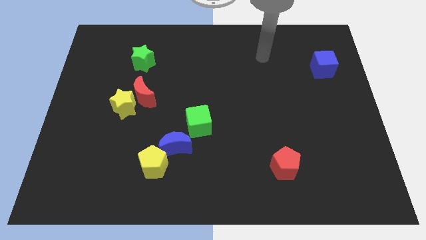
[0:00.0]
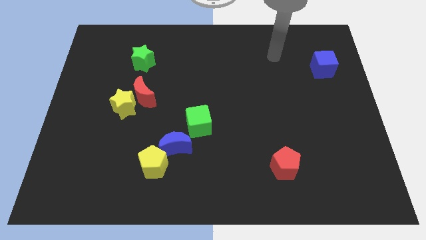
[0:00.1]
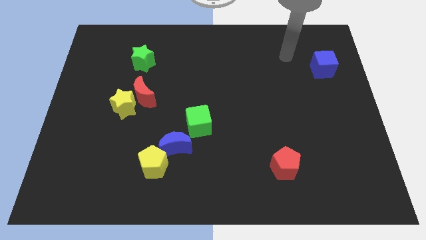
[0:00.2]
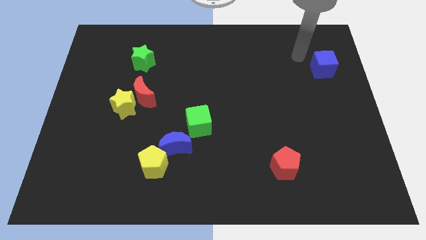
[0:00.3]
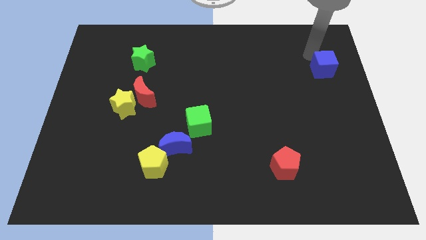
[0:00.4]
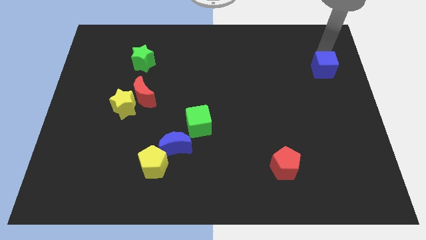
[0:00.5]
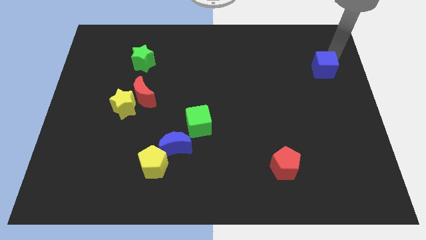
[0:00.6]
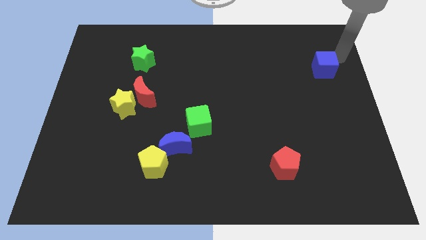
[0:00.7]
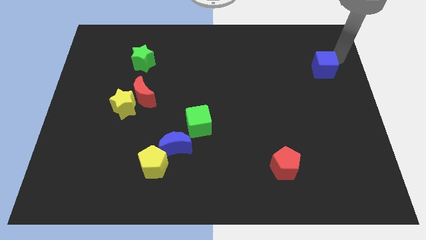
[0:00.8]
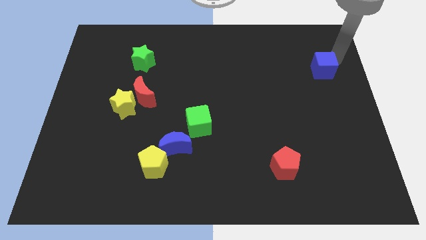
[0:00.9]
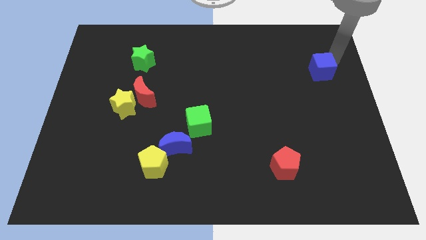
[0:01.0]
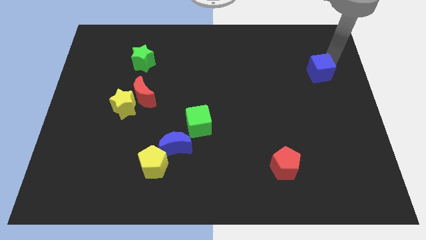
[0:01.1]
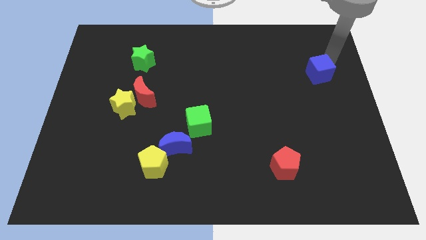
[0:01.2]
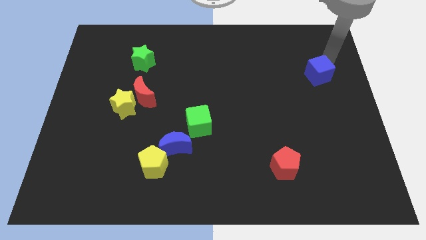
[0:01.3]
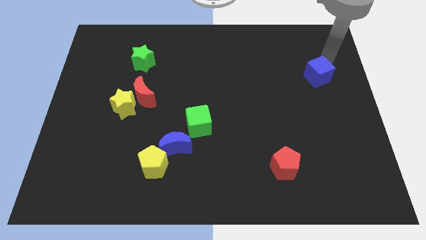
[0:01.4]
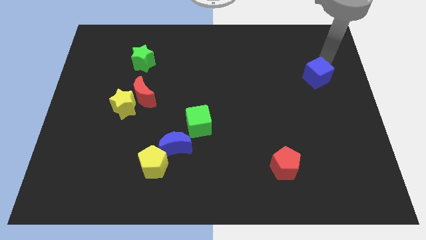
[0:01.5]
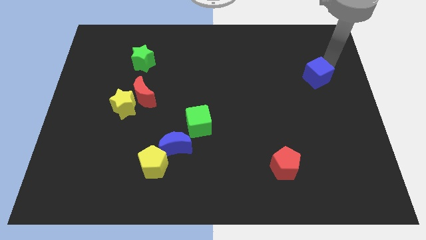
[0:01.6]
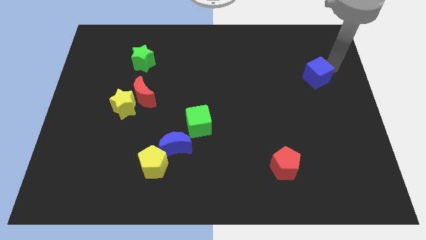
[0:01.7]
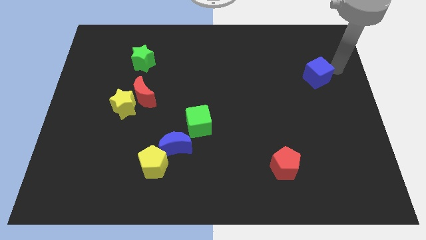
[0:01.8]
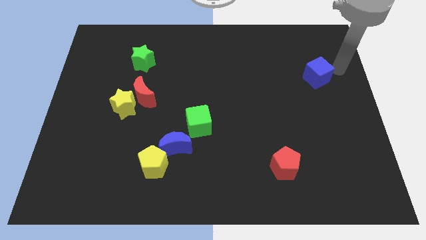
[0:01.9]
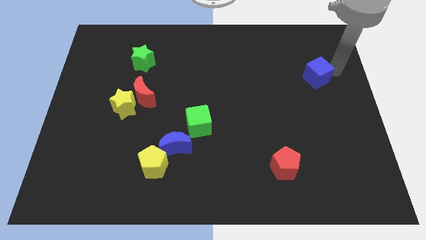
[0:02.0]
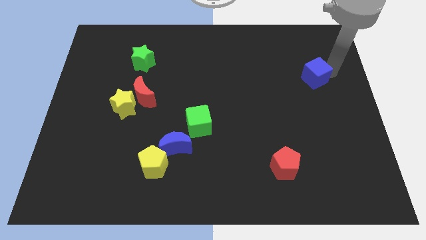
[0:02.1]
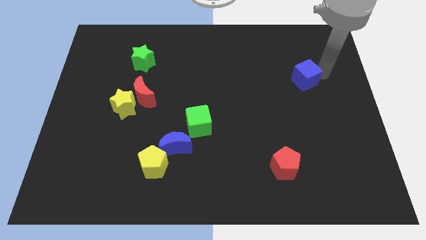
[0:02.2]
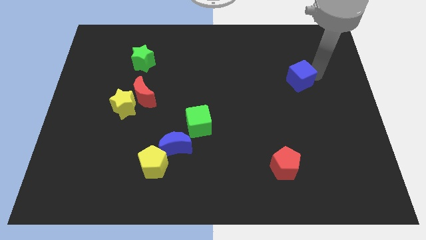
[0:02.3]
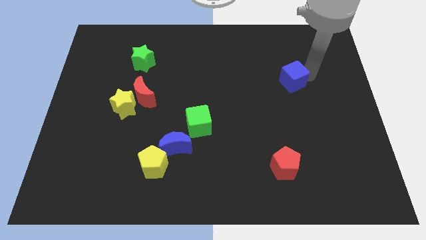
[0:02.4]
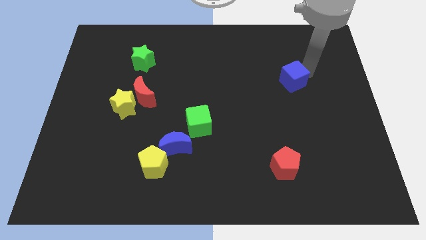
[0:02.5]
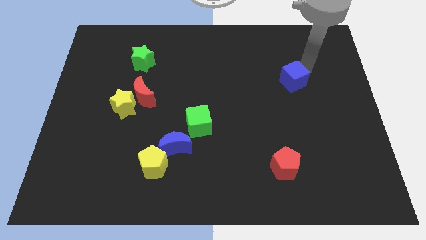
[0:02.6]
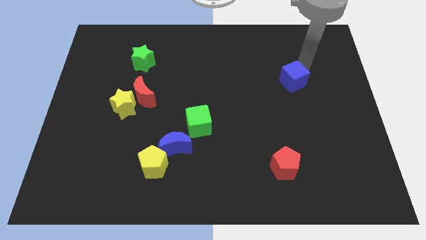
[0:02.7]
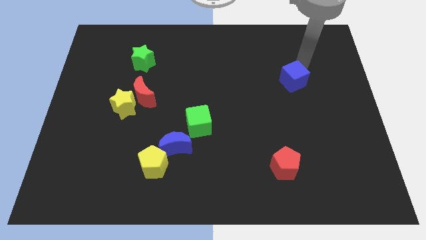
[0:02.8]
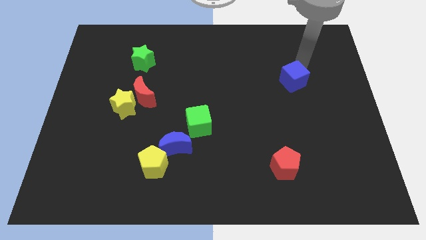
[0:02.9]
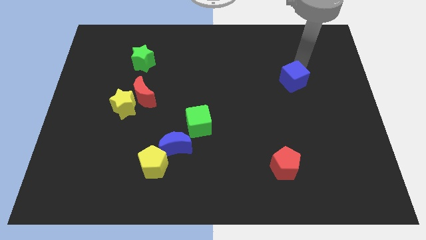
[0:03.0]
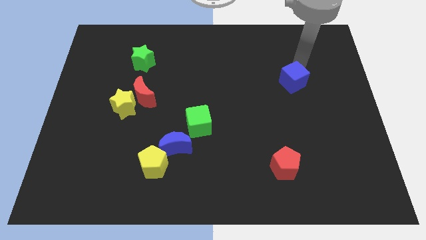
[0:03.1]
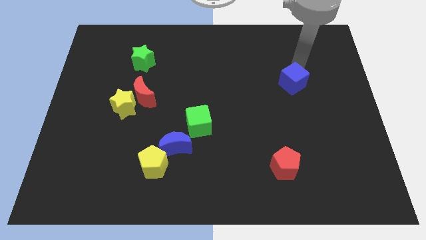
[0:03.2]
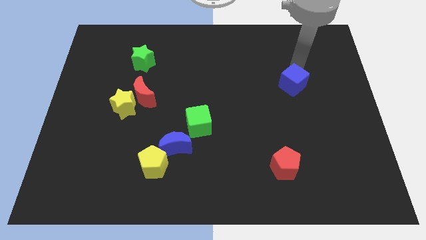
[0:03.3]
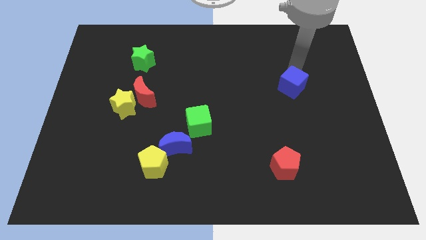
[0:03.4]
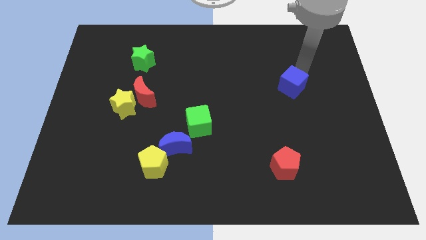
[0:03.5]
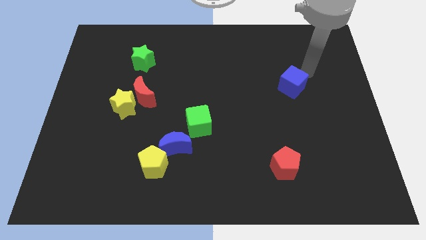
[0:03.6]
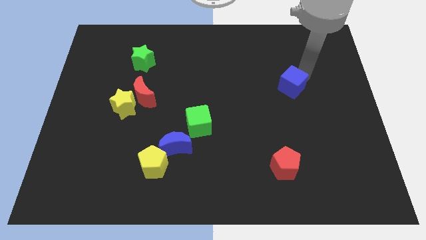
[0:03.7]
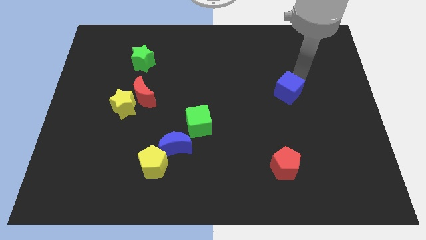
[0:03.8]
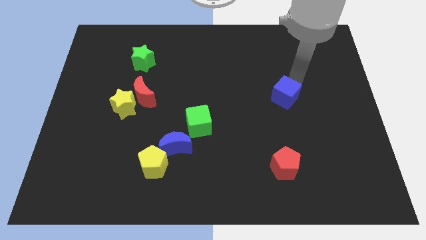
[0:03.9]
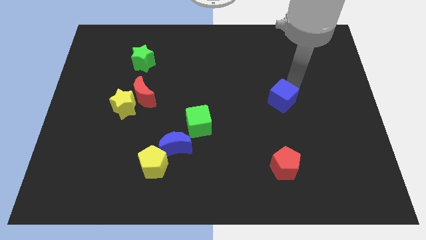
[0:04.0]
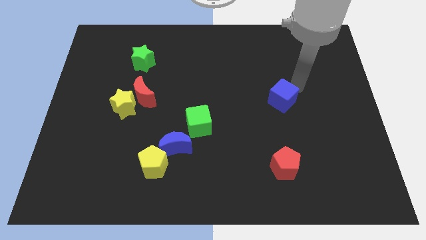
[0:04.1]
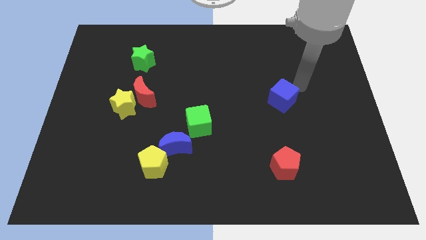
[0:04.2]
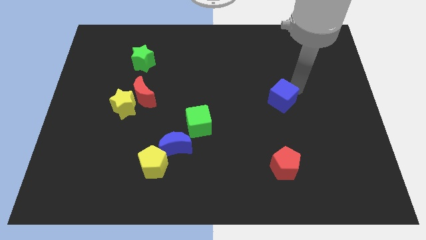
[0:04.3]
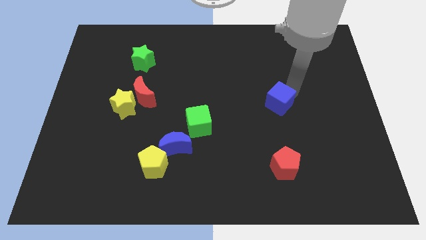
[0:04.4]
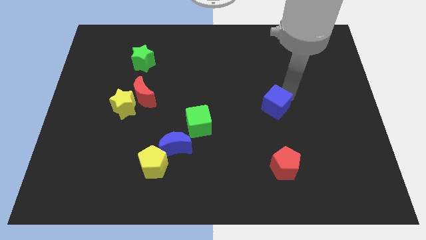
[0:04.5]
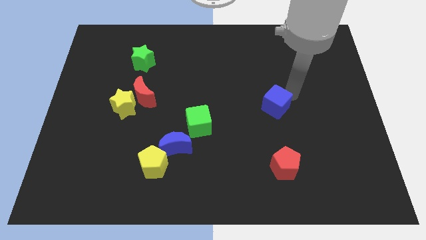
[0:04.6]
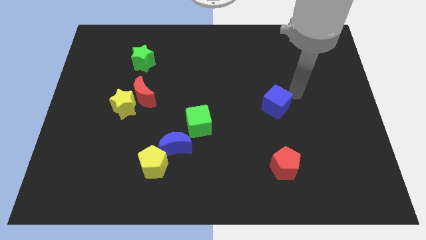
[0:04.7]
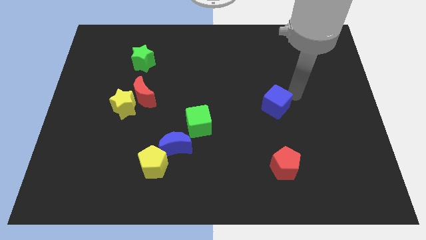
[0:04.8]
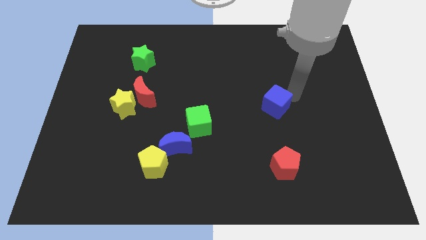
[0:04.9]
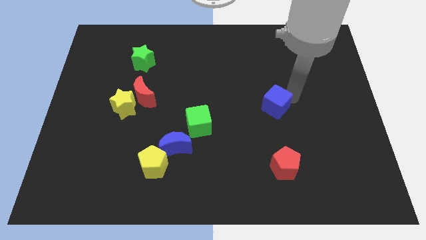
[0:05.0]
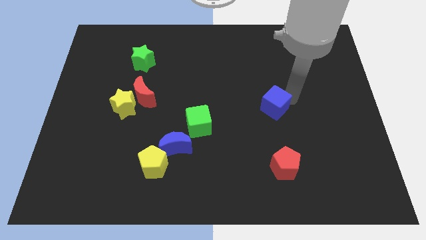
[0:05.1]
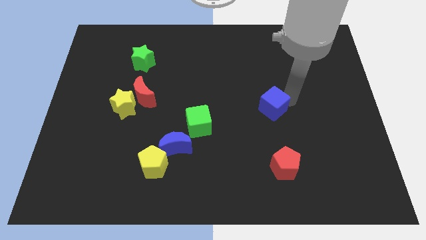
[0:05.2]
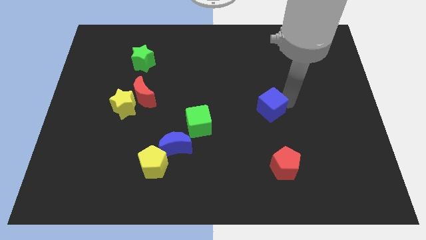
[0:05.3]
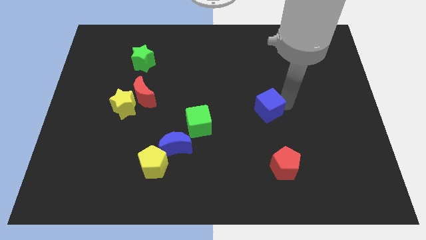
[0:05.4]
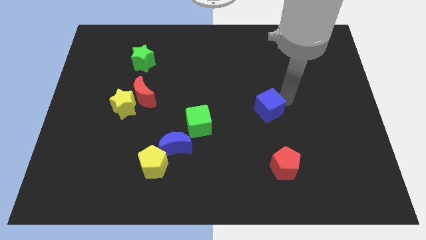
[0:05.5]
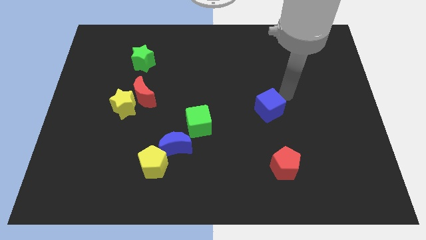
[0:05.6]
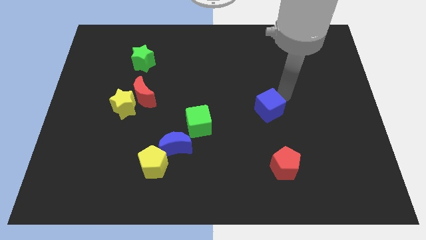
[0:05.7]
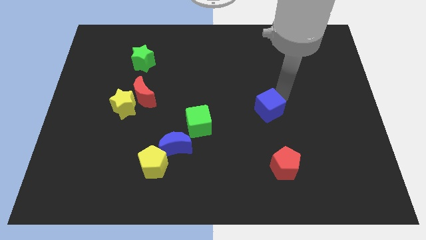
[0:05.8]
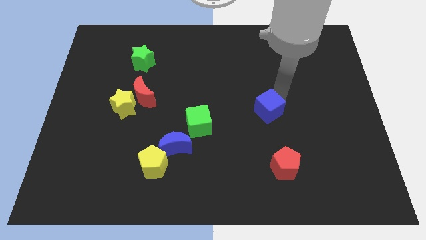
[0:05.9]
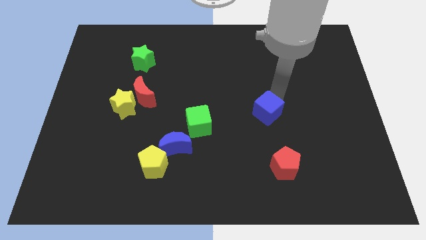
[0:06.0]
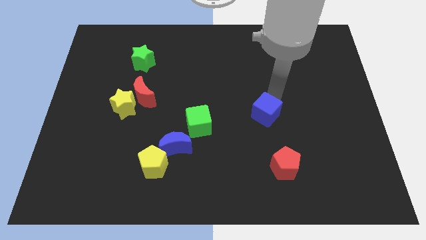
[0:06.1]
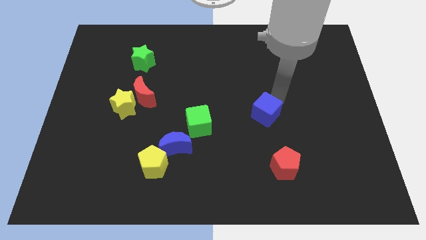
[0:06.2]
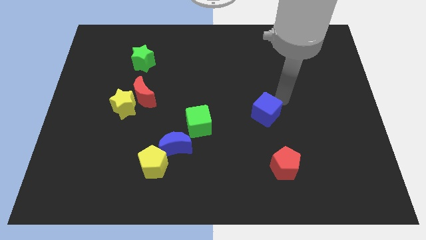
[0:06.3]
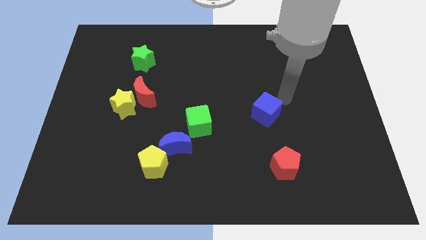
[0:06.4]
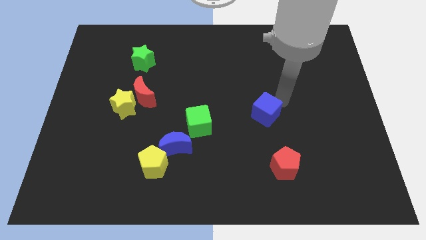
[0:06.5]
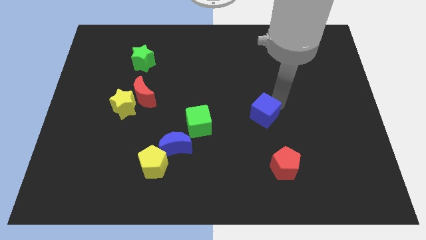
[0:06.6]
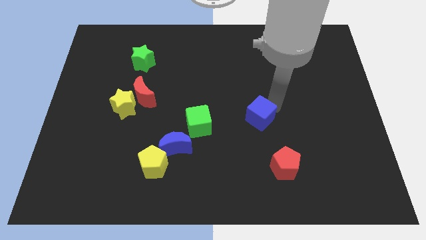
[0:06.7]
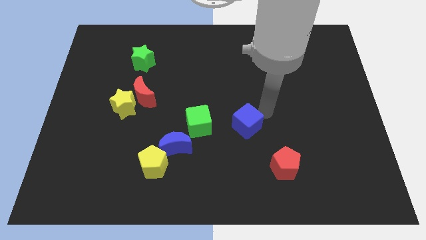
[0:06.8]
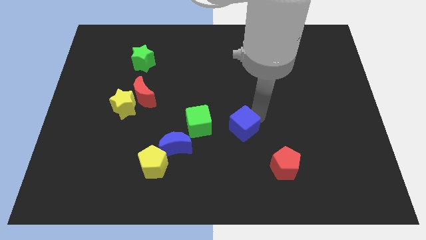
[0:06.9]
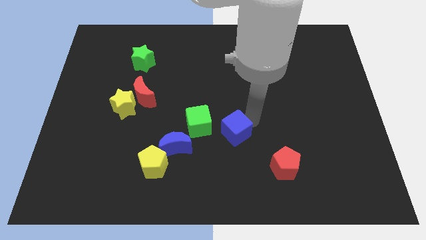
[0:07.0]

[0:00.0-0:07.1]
slide the blue cube to the bottom right side of the green cube

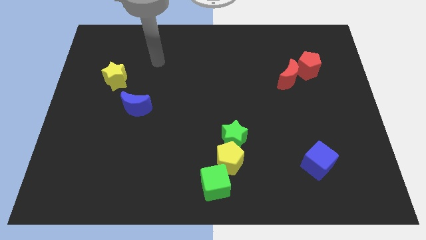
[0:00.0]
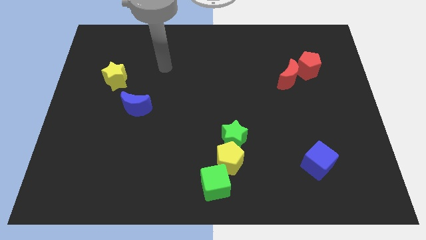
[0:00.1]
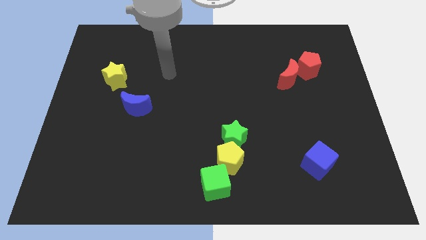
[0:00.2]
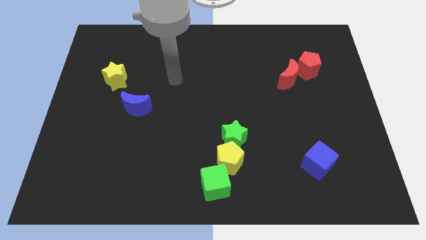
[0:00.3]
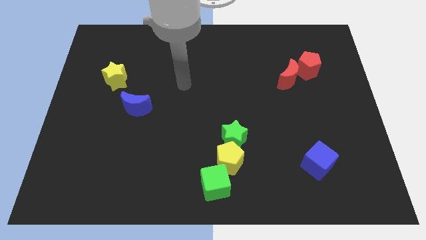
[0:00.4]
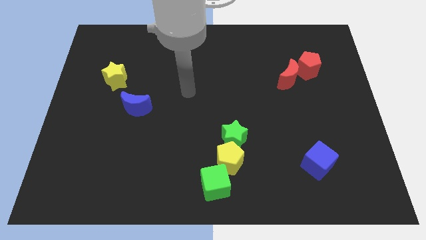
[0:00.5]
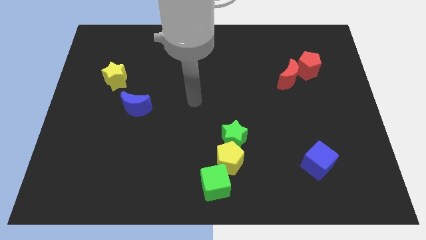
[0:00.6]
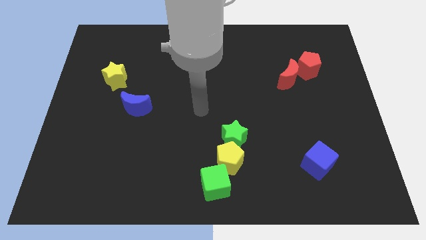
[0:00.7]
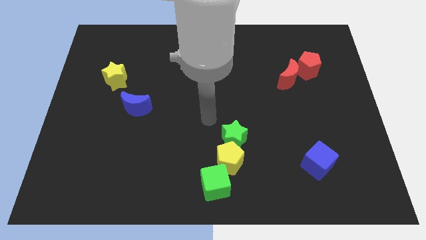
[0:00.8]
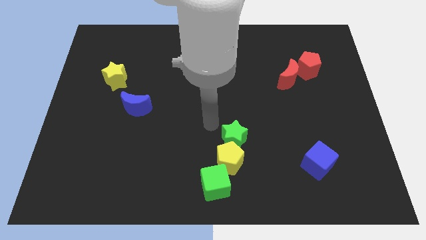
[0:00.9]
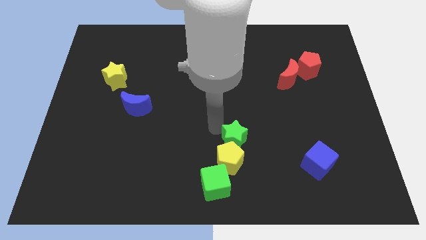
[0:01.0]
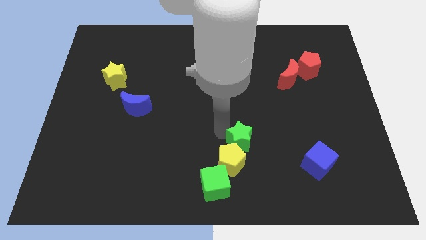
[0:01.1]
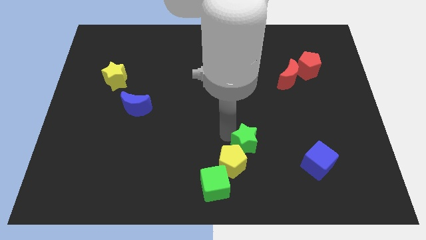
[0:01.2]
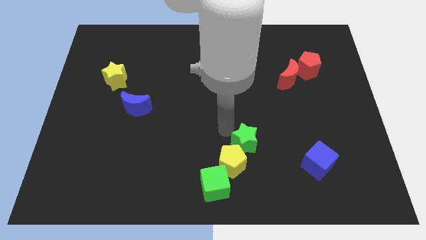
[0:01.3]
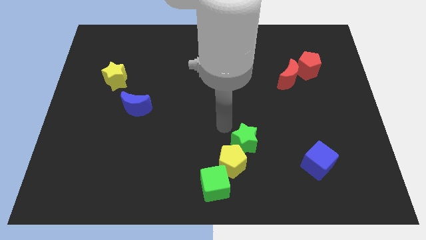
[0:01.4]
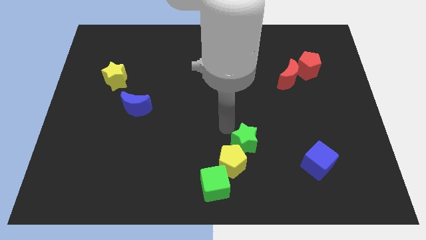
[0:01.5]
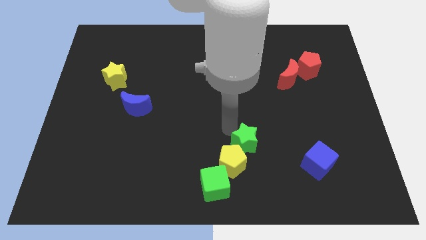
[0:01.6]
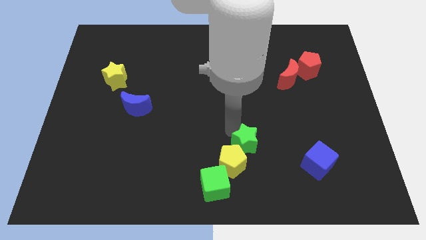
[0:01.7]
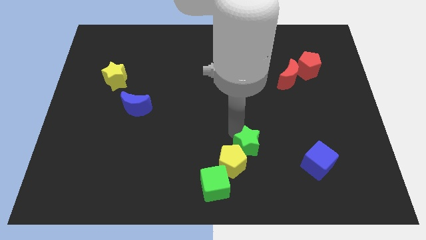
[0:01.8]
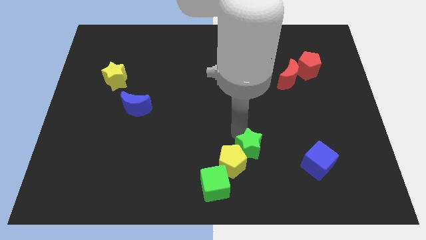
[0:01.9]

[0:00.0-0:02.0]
slide the green star left of the blue cube
